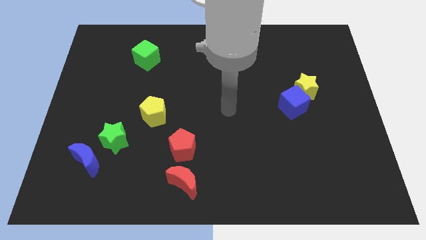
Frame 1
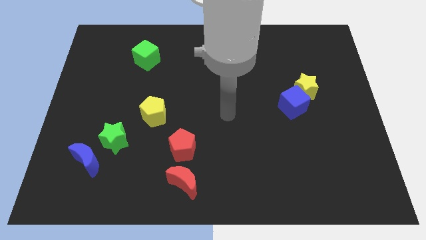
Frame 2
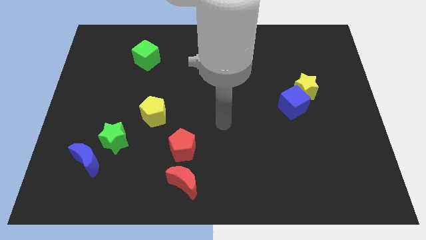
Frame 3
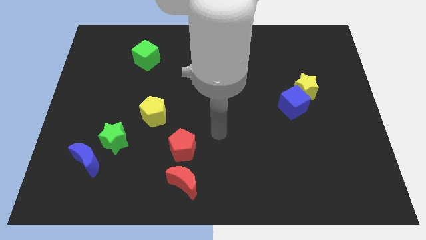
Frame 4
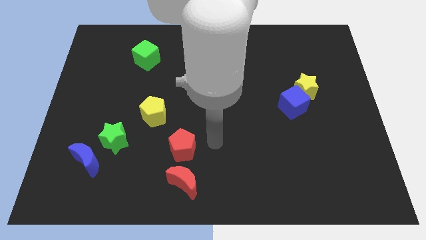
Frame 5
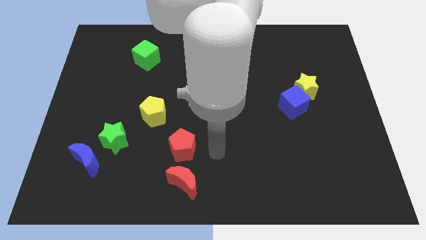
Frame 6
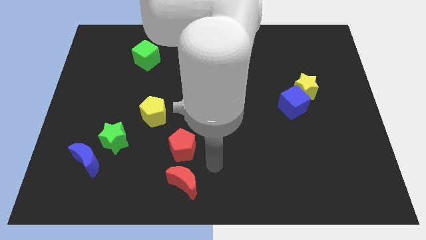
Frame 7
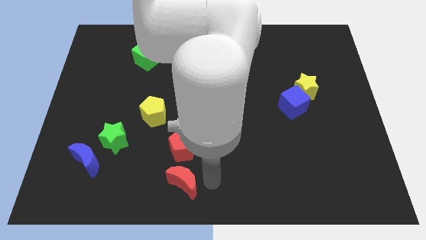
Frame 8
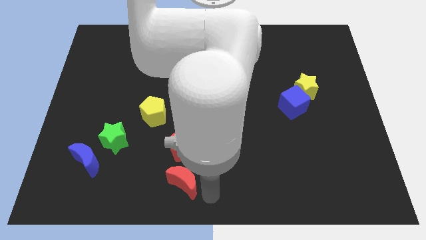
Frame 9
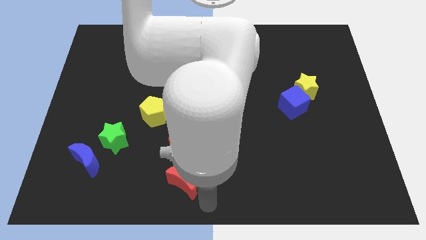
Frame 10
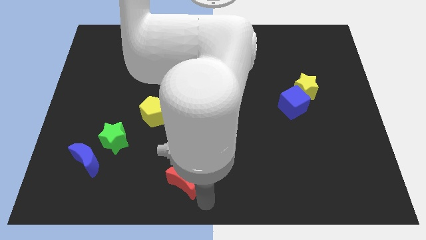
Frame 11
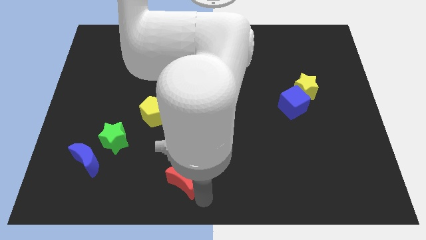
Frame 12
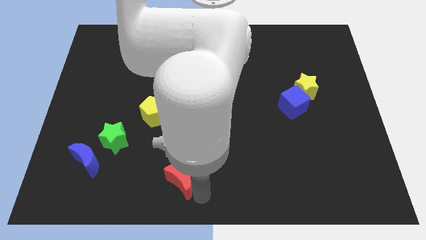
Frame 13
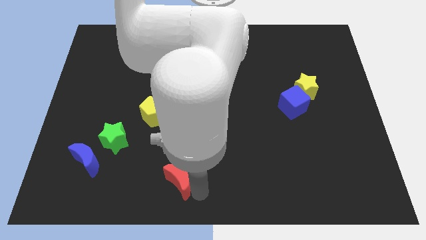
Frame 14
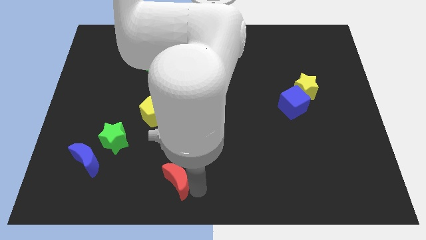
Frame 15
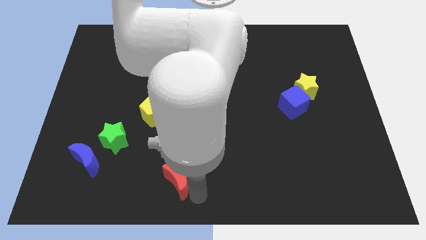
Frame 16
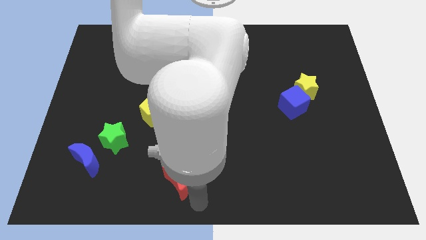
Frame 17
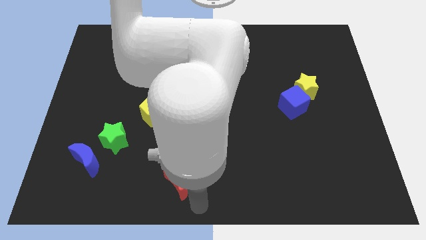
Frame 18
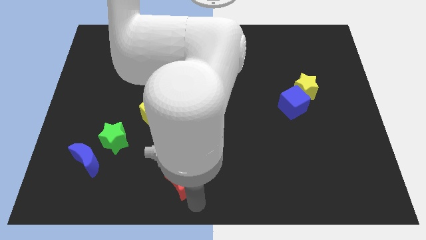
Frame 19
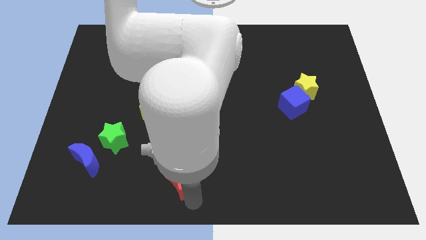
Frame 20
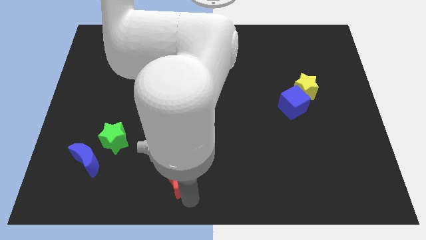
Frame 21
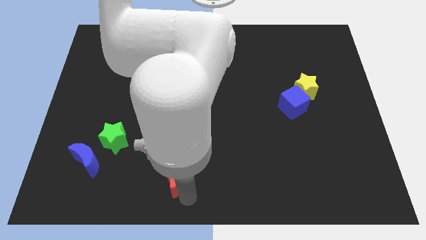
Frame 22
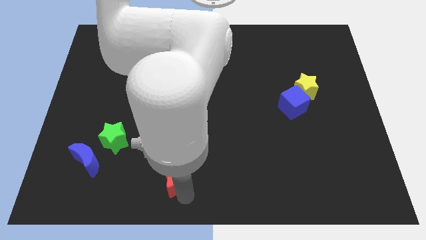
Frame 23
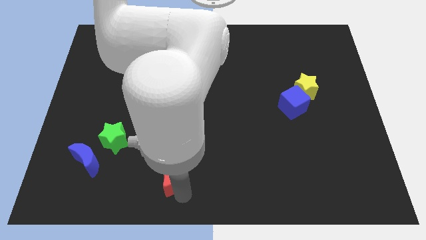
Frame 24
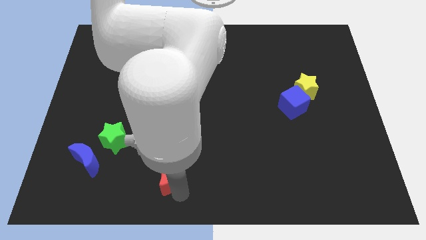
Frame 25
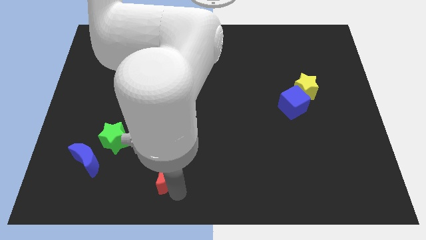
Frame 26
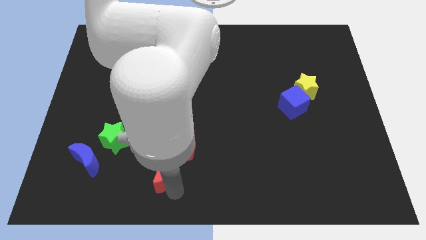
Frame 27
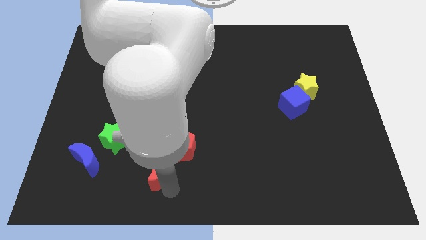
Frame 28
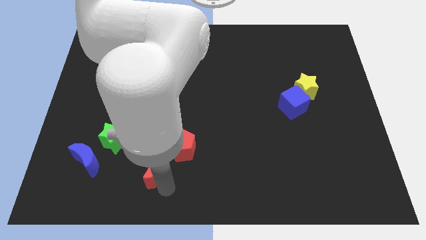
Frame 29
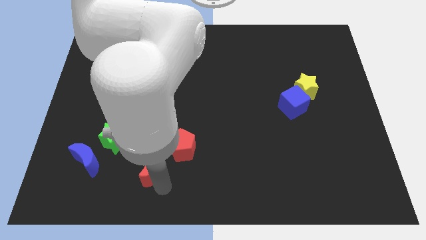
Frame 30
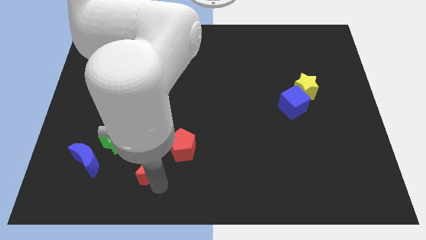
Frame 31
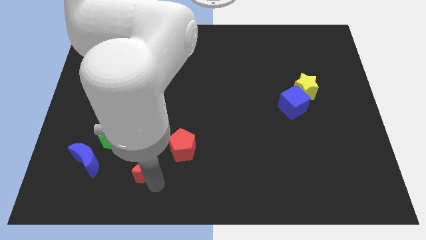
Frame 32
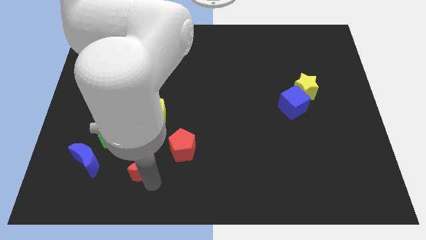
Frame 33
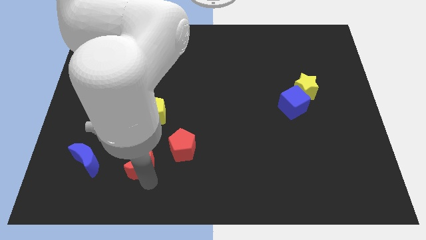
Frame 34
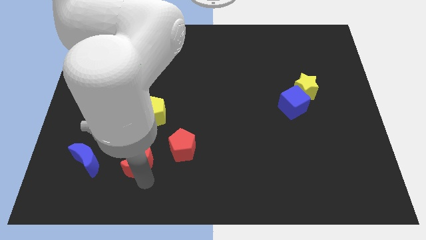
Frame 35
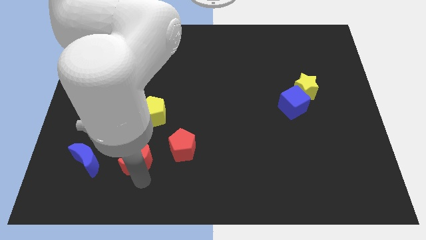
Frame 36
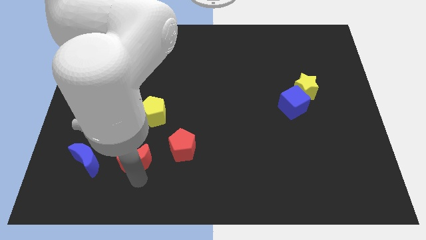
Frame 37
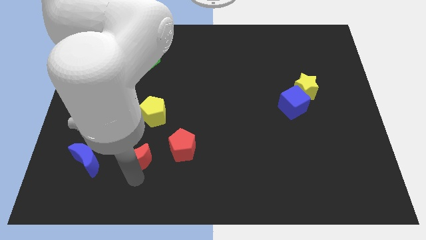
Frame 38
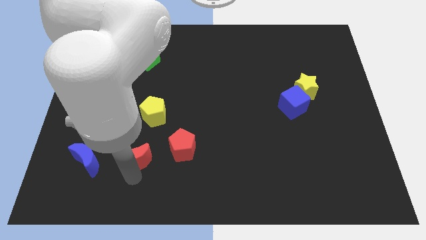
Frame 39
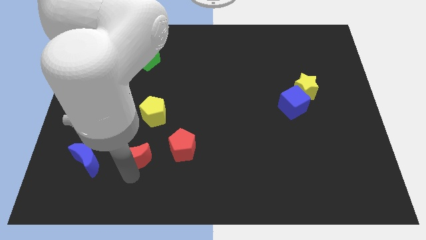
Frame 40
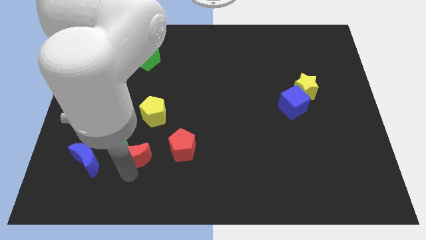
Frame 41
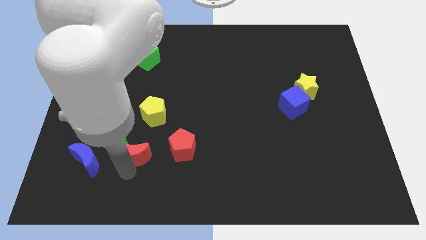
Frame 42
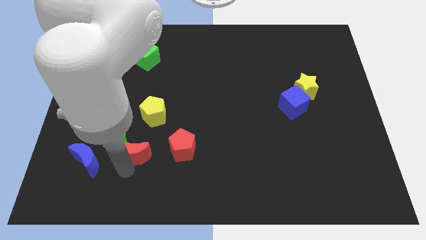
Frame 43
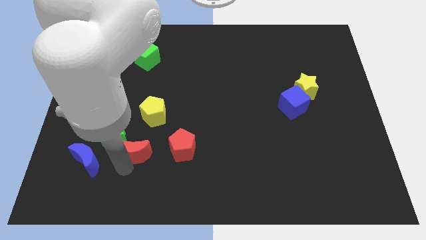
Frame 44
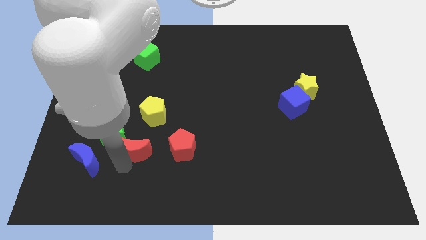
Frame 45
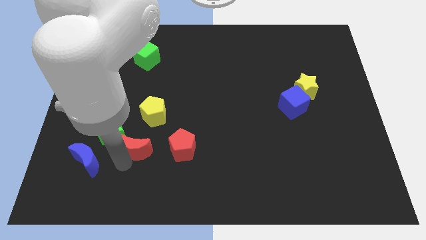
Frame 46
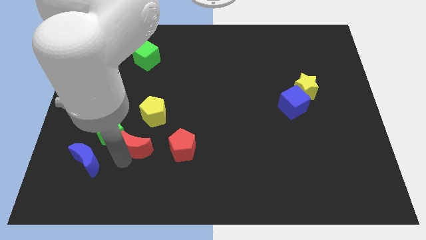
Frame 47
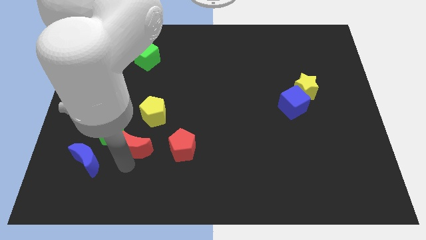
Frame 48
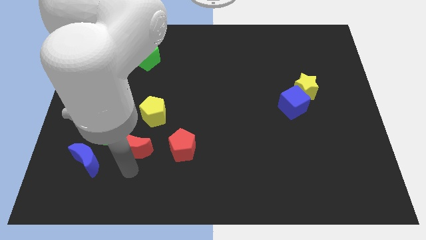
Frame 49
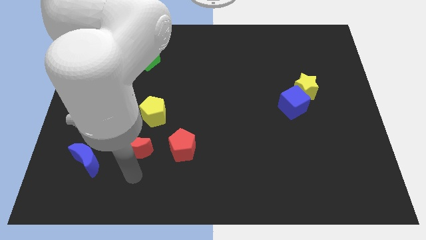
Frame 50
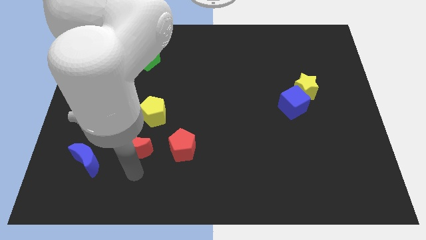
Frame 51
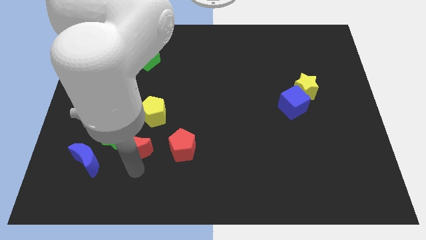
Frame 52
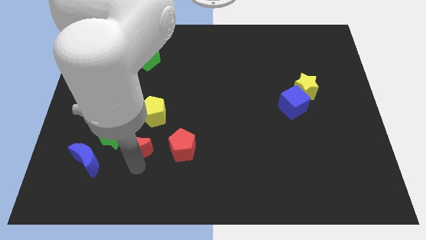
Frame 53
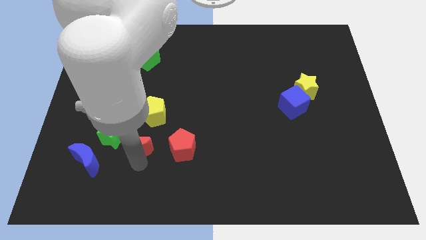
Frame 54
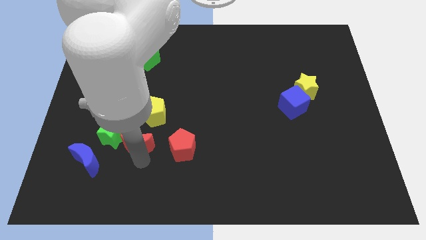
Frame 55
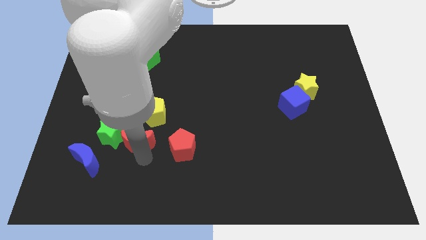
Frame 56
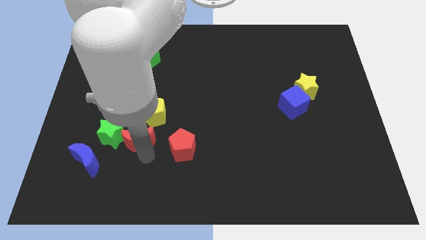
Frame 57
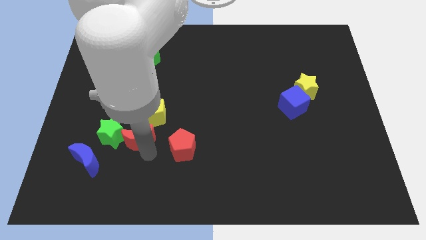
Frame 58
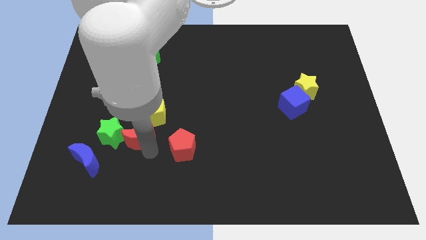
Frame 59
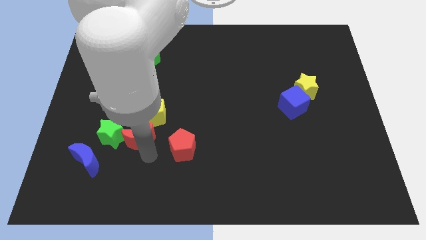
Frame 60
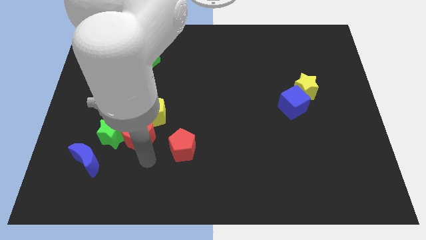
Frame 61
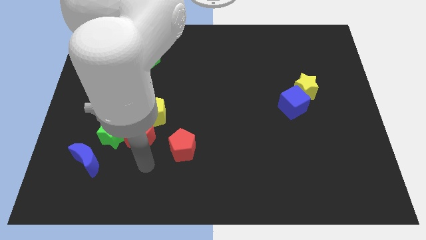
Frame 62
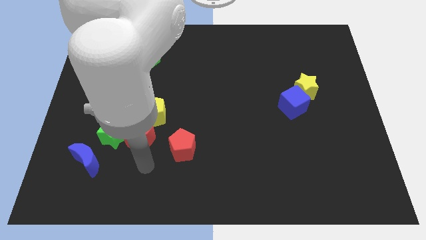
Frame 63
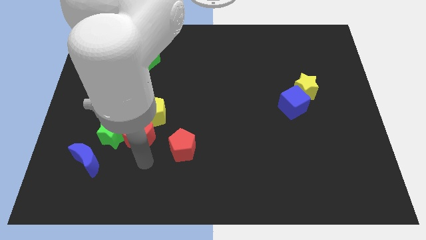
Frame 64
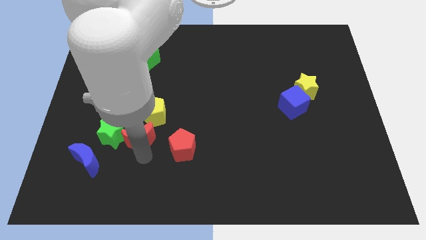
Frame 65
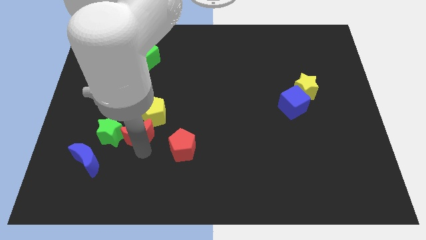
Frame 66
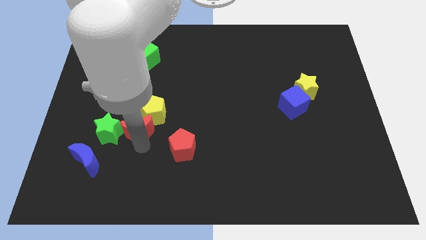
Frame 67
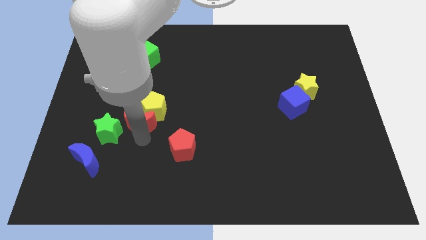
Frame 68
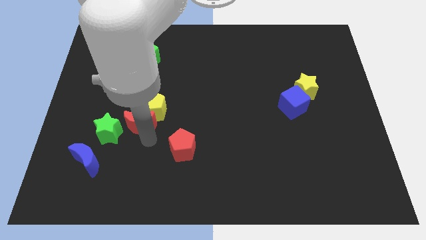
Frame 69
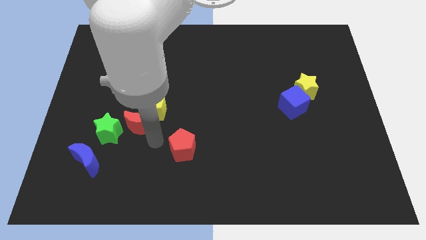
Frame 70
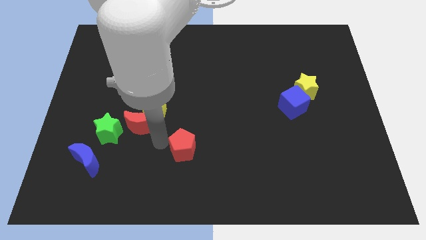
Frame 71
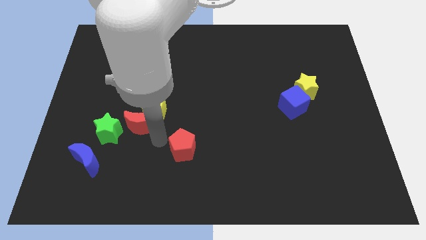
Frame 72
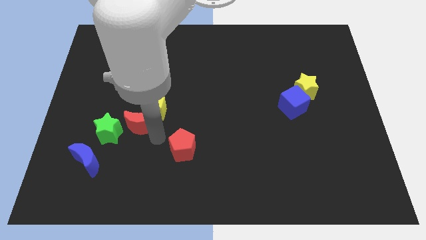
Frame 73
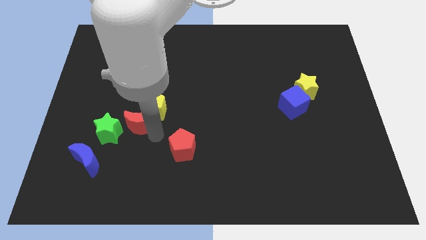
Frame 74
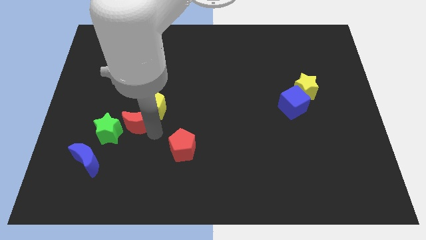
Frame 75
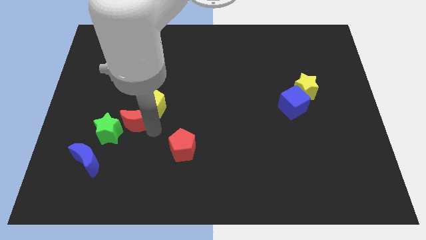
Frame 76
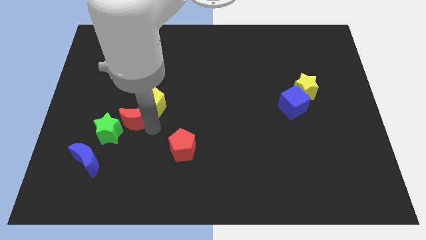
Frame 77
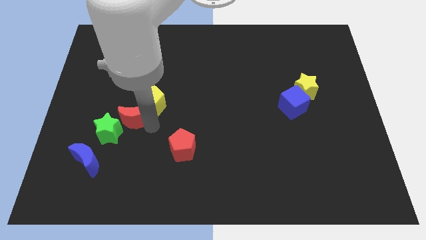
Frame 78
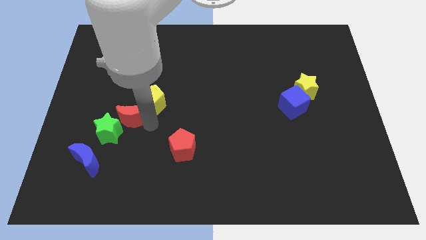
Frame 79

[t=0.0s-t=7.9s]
push the red moon up and to the left diagonally

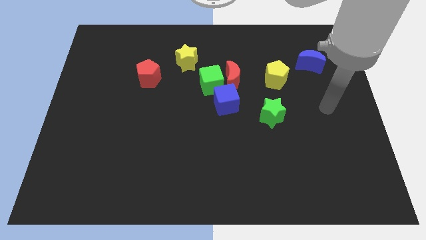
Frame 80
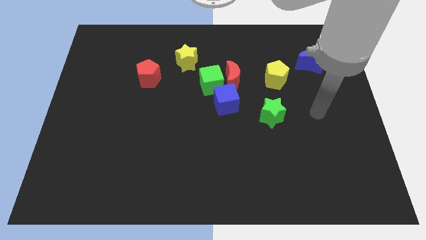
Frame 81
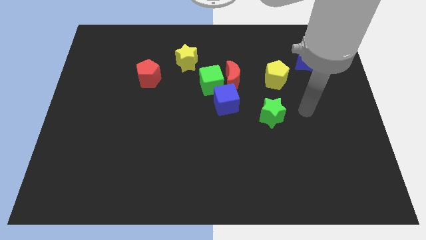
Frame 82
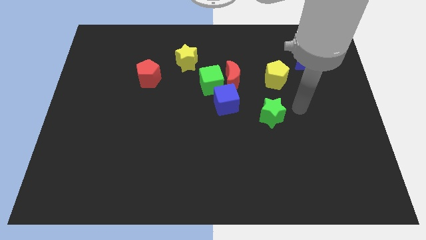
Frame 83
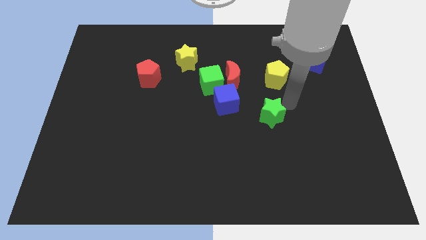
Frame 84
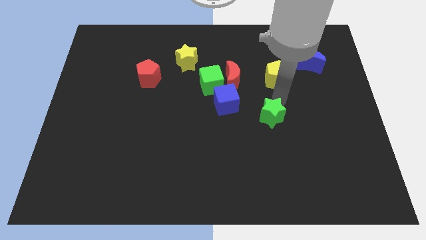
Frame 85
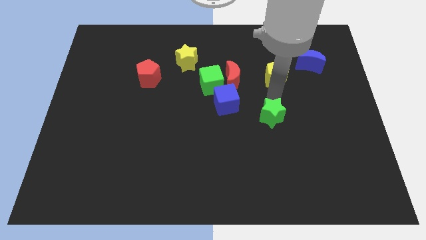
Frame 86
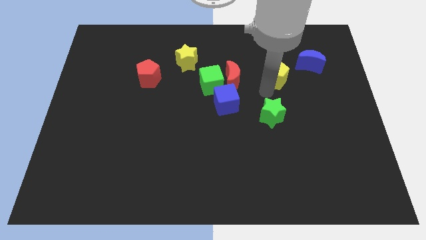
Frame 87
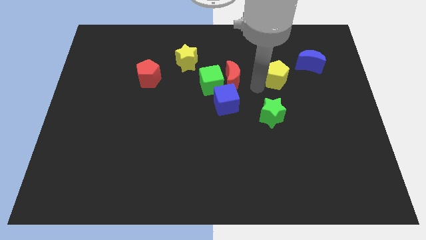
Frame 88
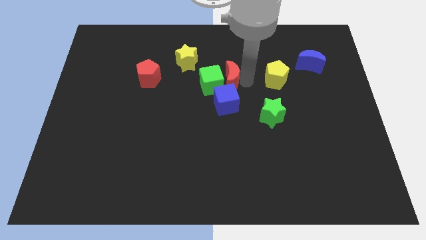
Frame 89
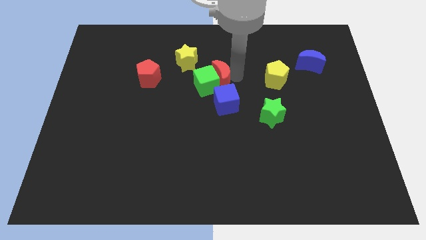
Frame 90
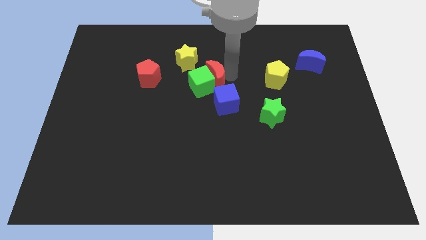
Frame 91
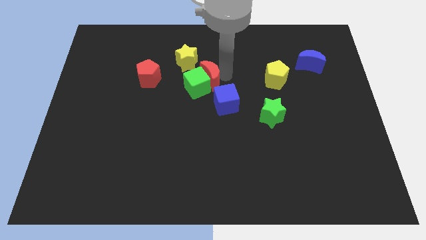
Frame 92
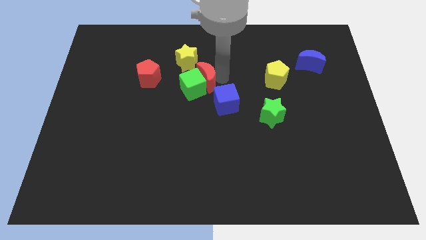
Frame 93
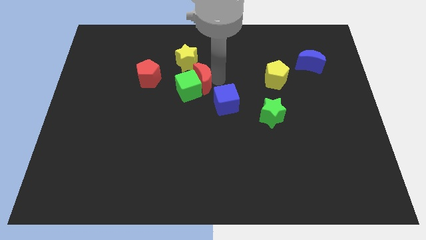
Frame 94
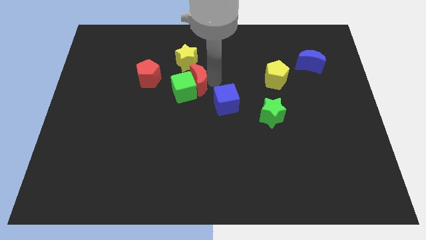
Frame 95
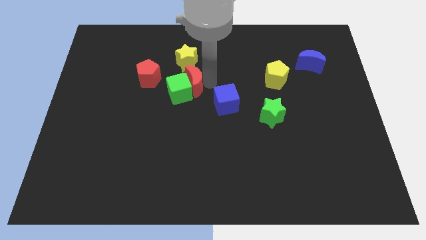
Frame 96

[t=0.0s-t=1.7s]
slide the green cube to the left a little bit
